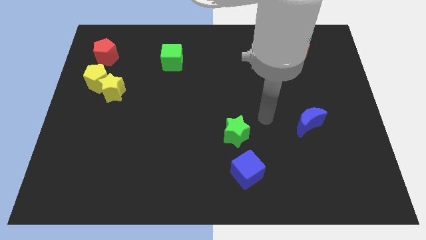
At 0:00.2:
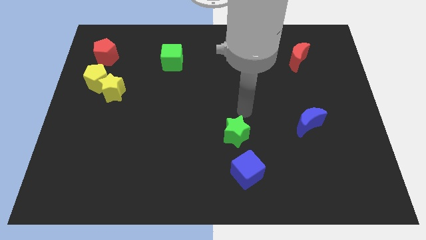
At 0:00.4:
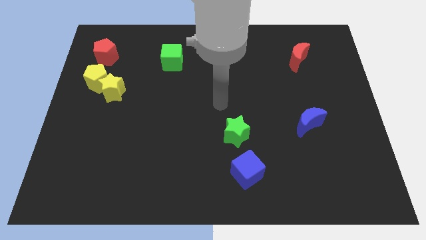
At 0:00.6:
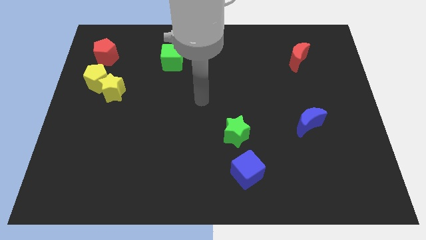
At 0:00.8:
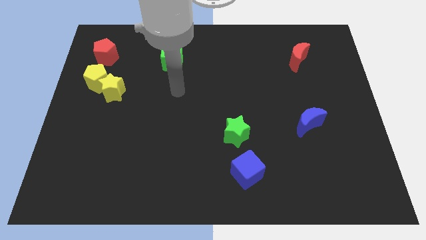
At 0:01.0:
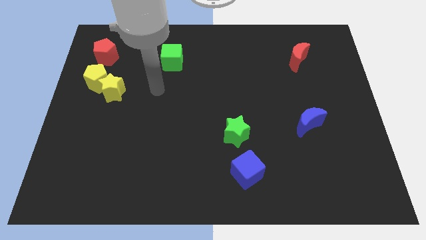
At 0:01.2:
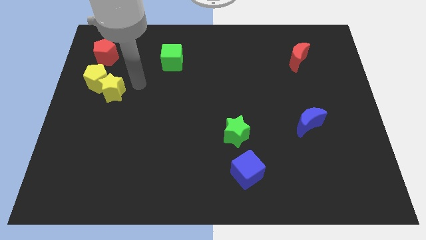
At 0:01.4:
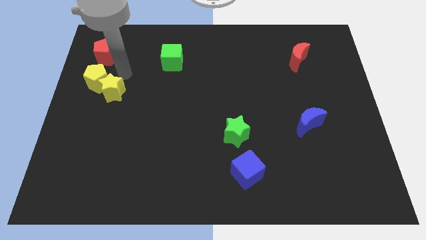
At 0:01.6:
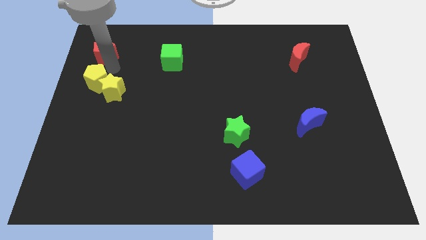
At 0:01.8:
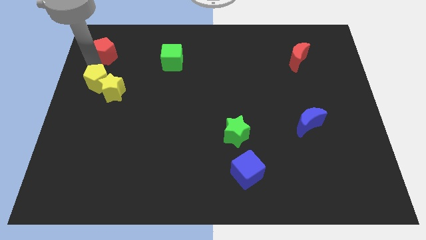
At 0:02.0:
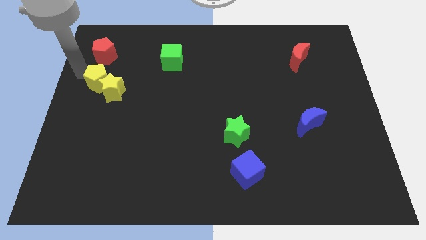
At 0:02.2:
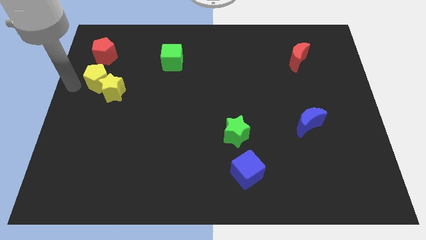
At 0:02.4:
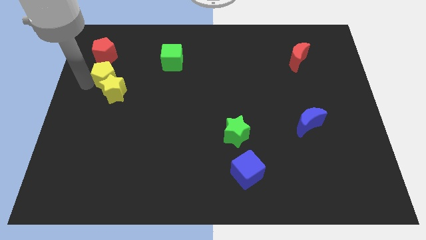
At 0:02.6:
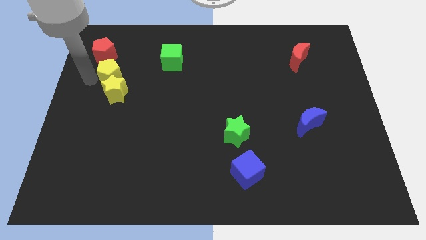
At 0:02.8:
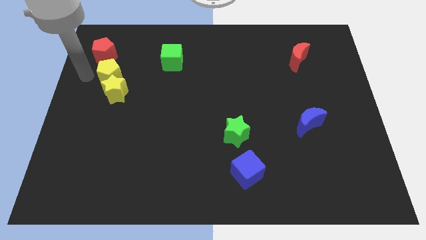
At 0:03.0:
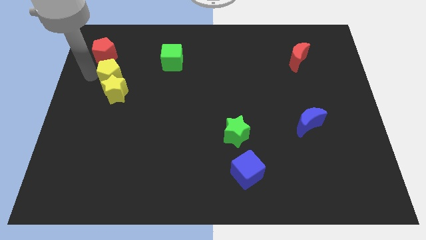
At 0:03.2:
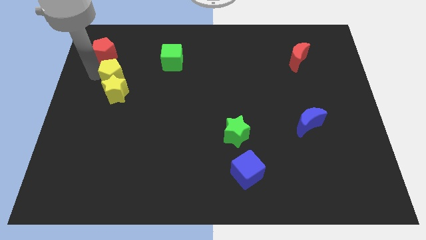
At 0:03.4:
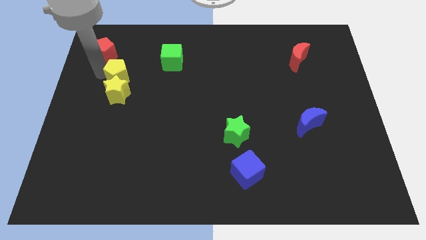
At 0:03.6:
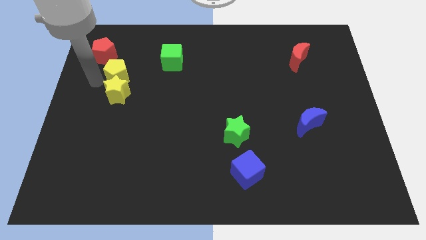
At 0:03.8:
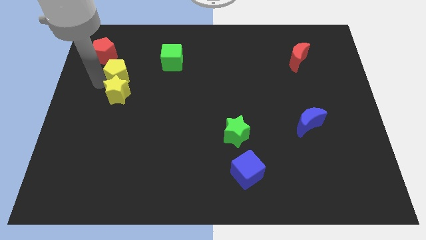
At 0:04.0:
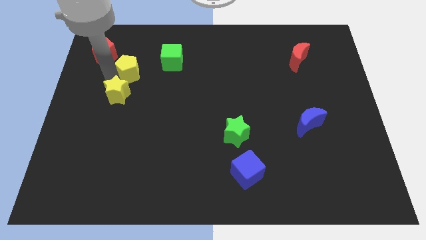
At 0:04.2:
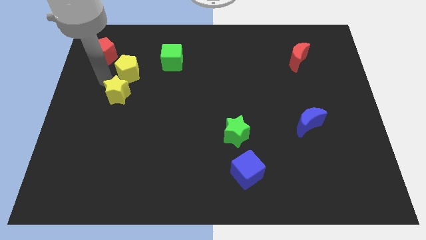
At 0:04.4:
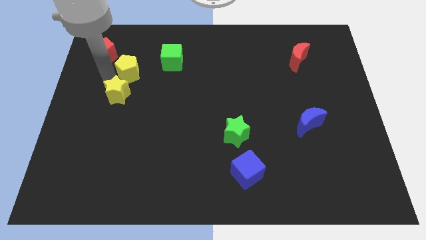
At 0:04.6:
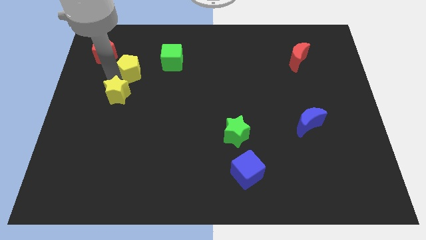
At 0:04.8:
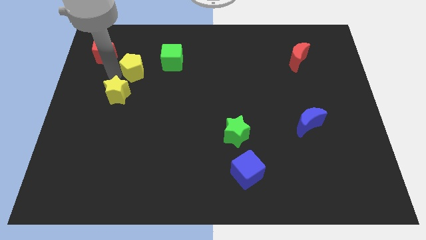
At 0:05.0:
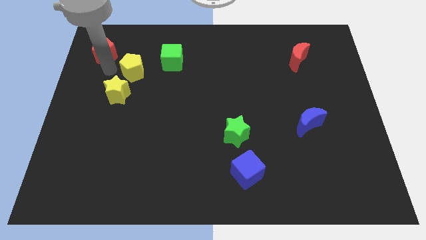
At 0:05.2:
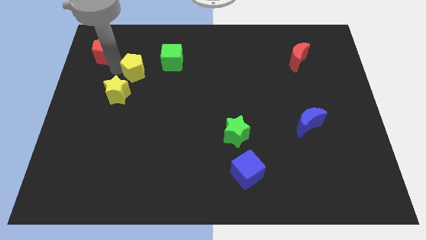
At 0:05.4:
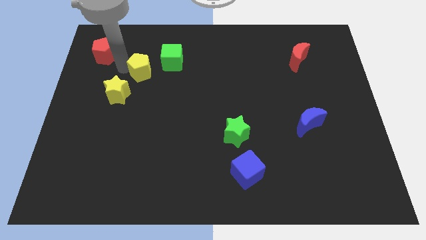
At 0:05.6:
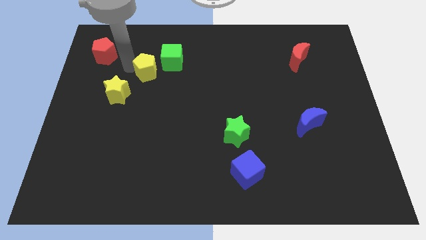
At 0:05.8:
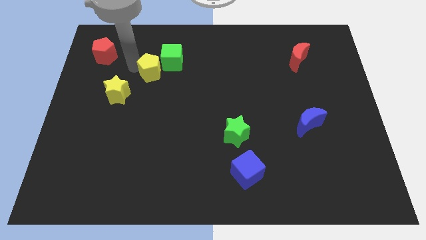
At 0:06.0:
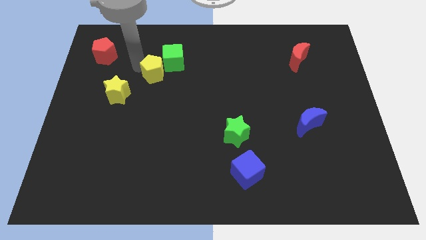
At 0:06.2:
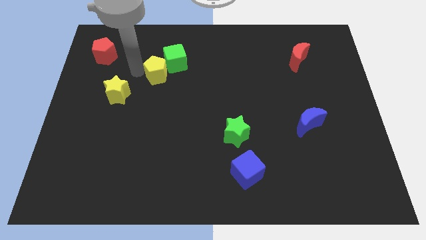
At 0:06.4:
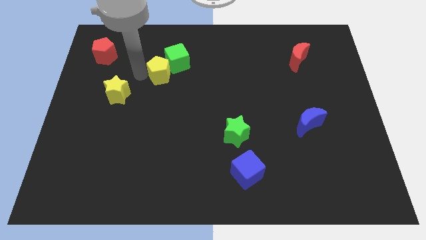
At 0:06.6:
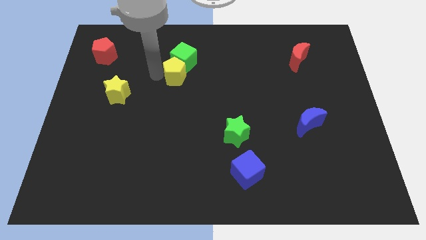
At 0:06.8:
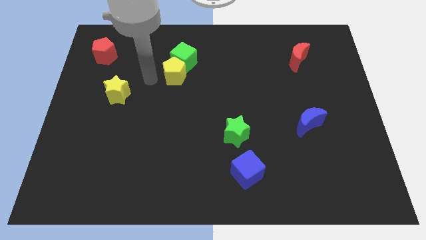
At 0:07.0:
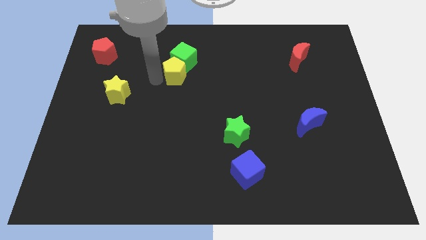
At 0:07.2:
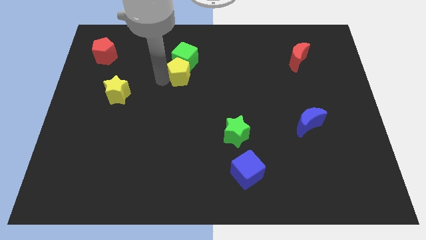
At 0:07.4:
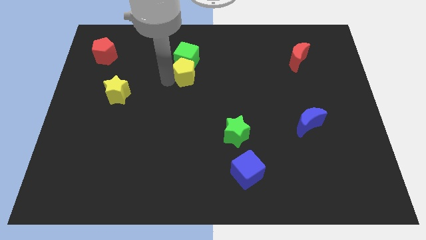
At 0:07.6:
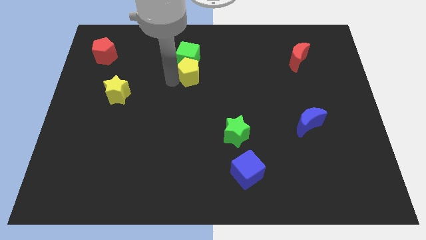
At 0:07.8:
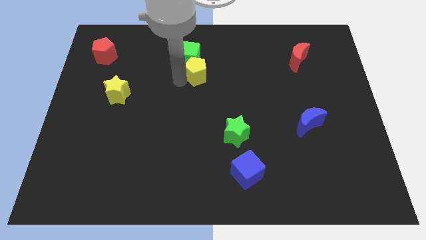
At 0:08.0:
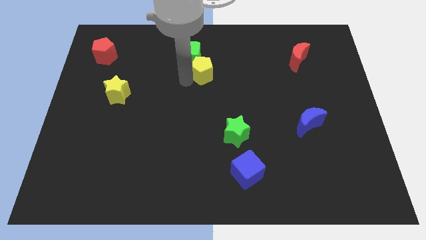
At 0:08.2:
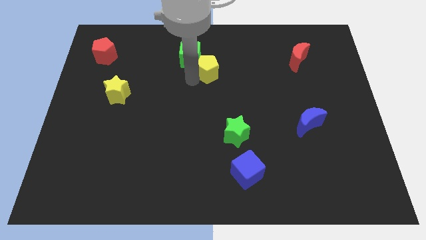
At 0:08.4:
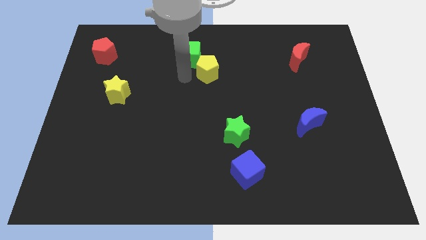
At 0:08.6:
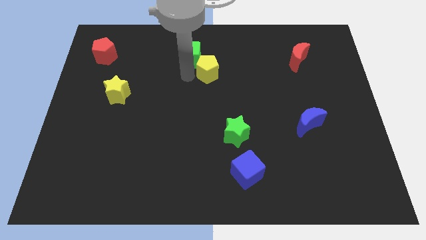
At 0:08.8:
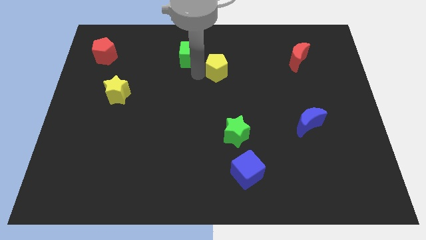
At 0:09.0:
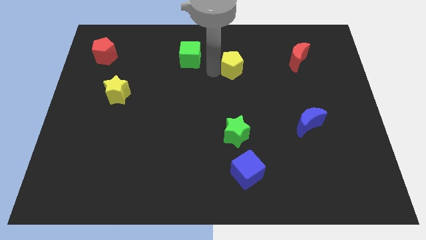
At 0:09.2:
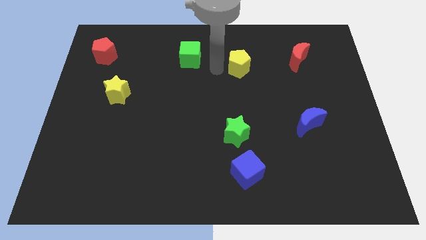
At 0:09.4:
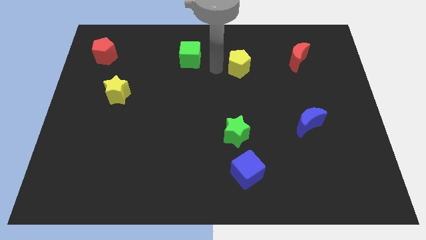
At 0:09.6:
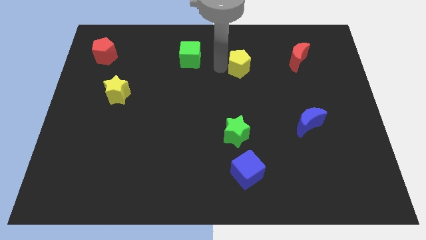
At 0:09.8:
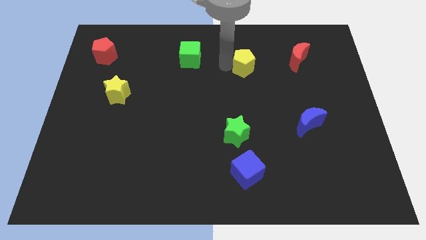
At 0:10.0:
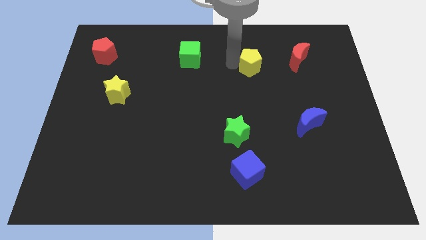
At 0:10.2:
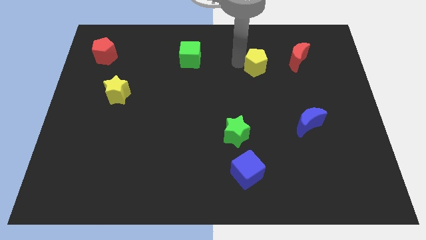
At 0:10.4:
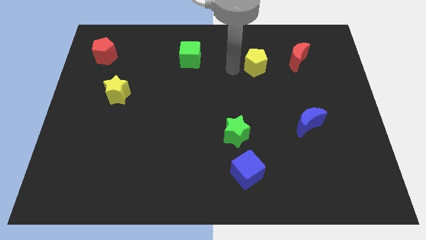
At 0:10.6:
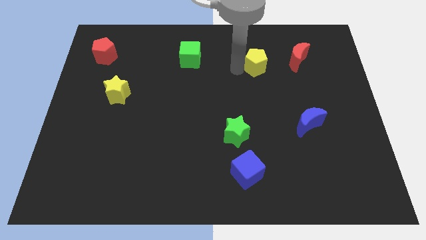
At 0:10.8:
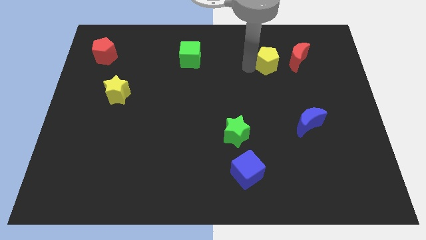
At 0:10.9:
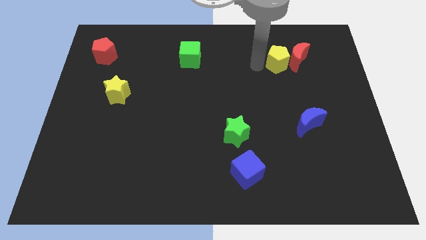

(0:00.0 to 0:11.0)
put the yellow pentagon towards the red moon

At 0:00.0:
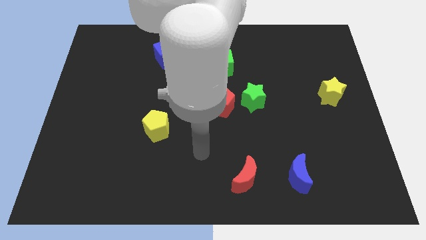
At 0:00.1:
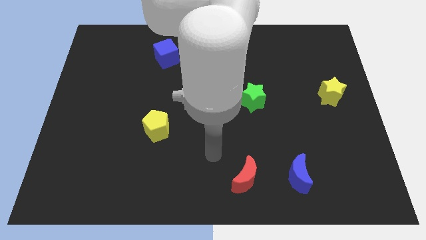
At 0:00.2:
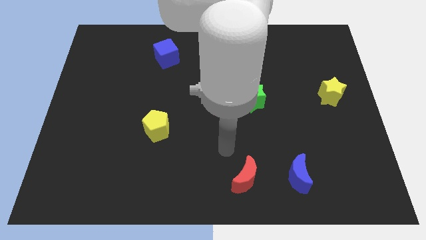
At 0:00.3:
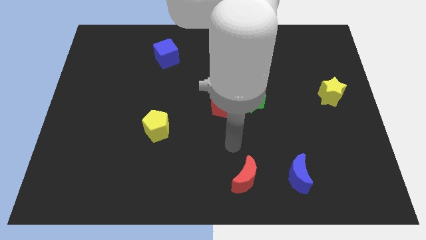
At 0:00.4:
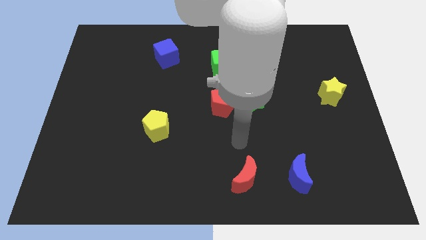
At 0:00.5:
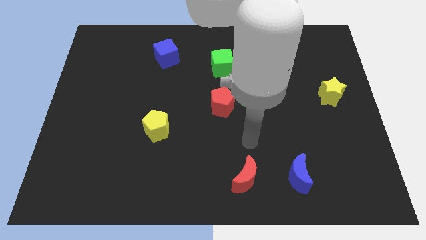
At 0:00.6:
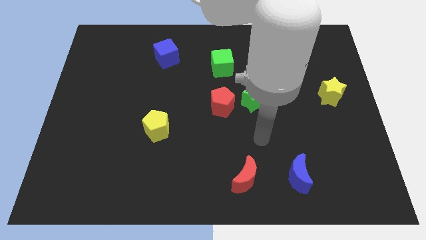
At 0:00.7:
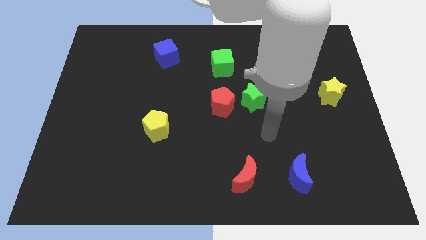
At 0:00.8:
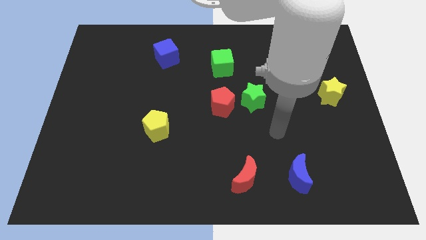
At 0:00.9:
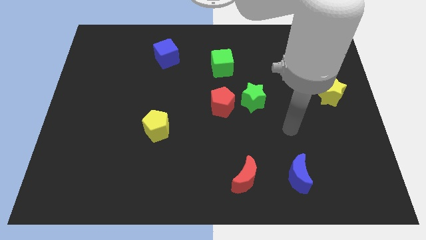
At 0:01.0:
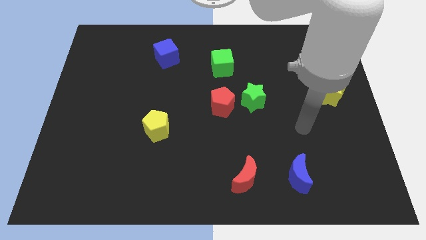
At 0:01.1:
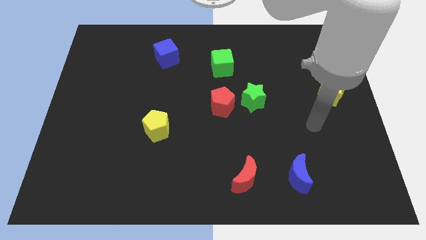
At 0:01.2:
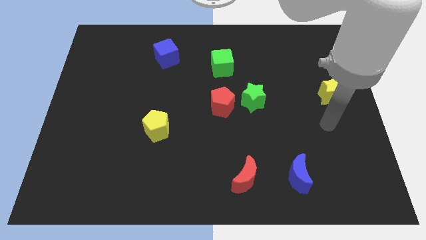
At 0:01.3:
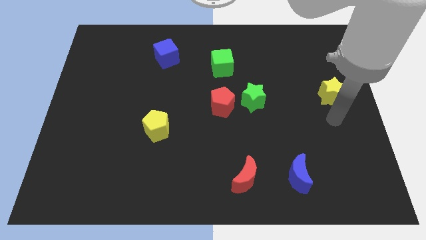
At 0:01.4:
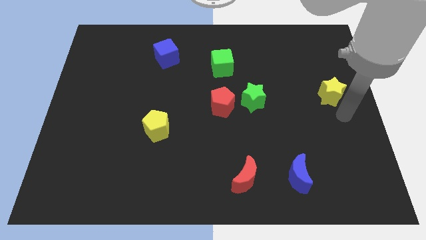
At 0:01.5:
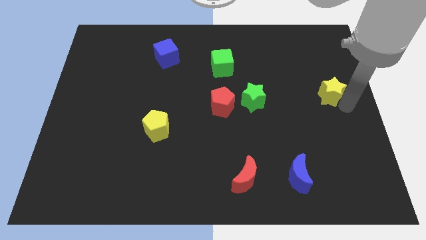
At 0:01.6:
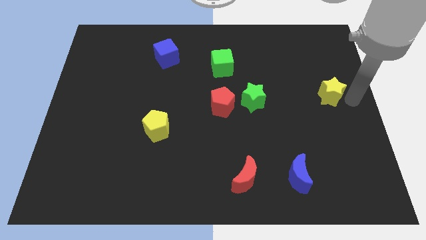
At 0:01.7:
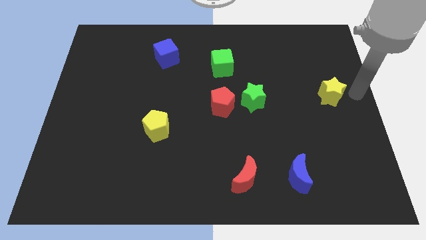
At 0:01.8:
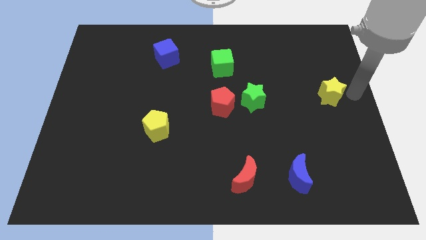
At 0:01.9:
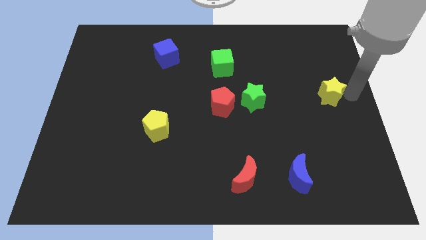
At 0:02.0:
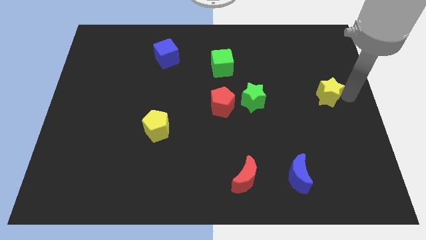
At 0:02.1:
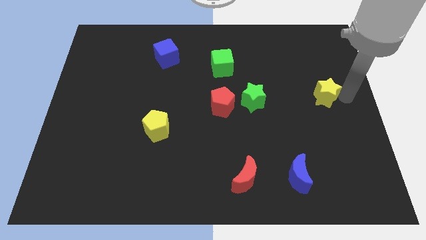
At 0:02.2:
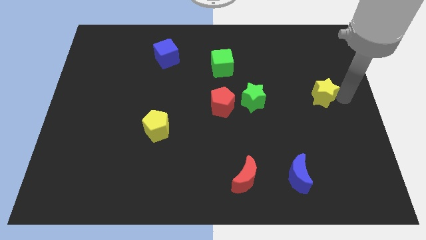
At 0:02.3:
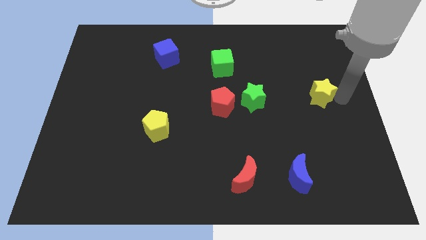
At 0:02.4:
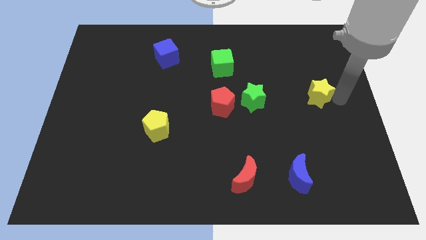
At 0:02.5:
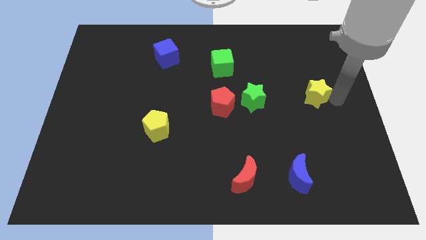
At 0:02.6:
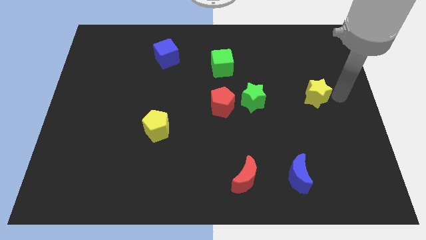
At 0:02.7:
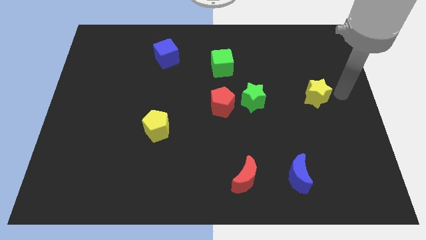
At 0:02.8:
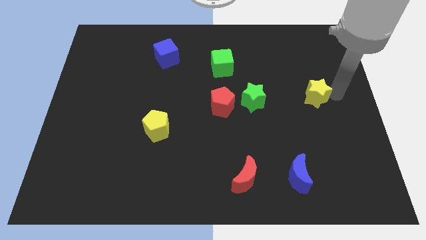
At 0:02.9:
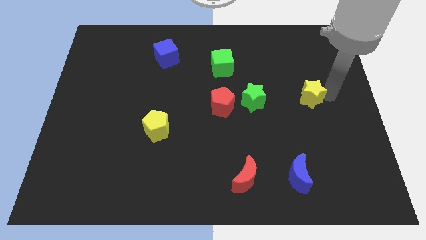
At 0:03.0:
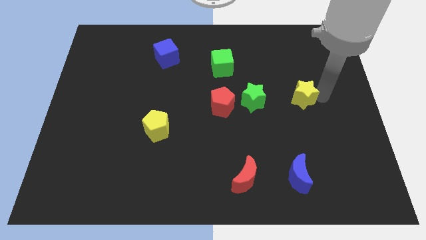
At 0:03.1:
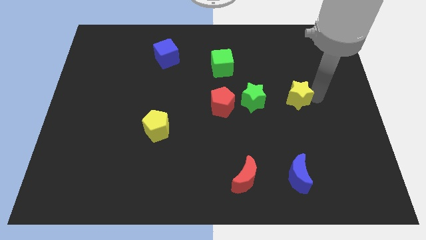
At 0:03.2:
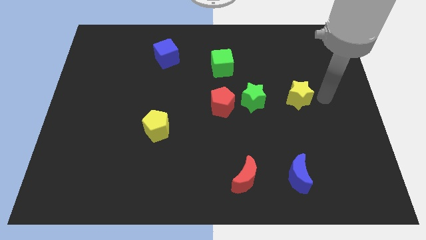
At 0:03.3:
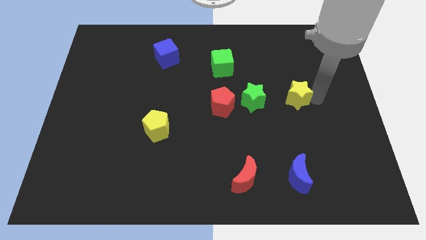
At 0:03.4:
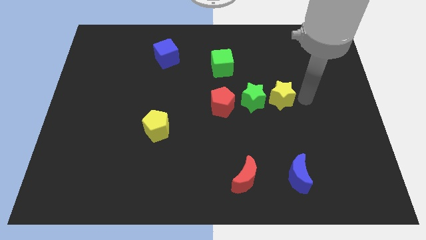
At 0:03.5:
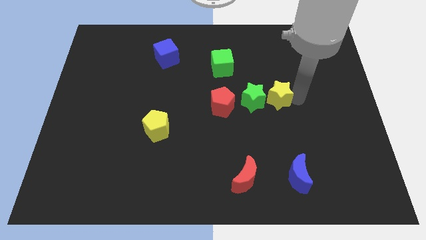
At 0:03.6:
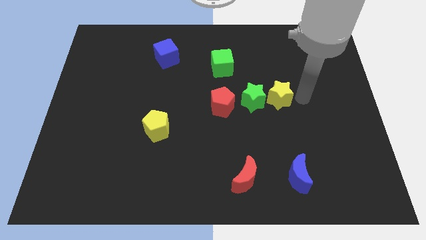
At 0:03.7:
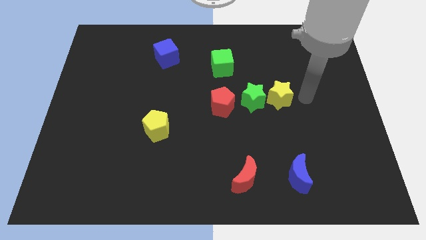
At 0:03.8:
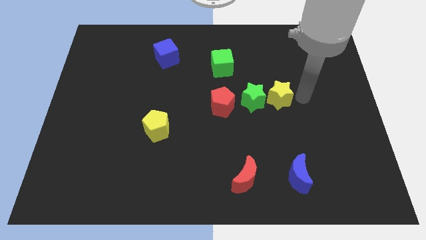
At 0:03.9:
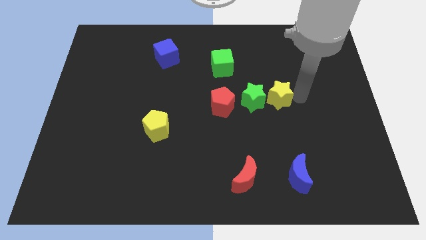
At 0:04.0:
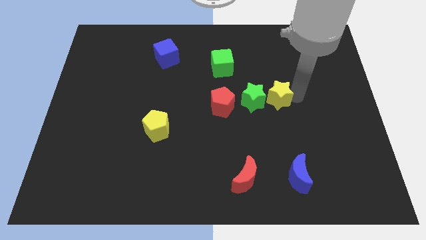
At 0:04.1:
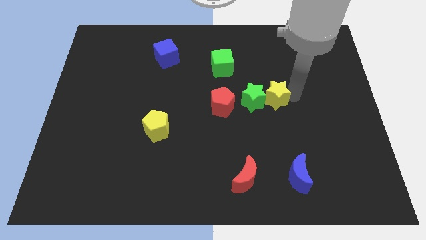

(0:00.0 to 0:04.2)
put the yellow star close to the green star
